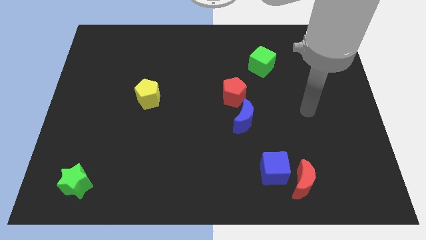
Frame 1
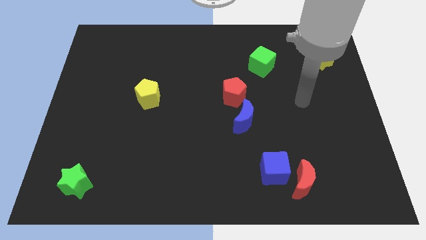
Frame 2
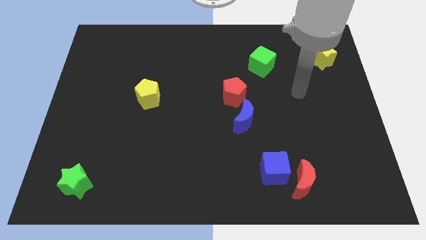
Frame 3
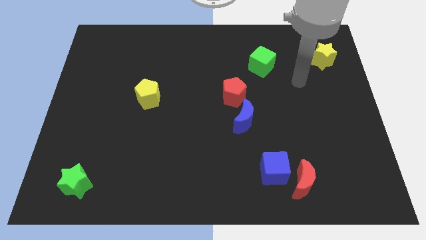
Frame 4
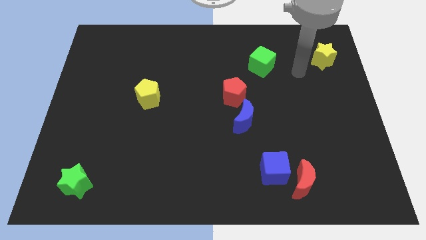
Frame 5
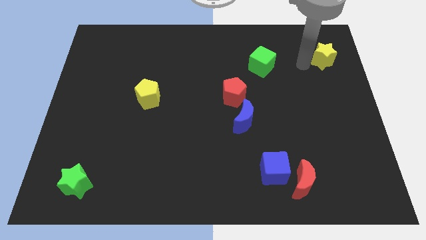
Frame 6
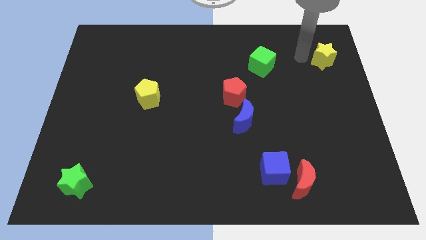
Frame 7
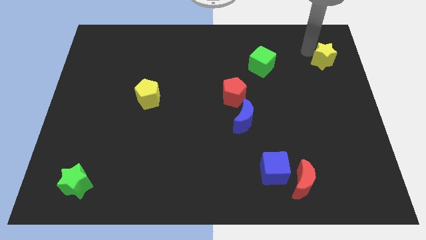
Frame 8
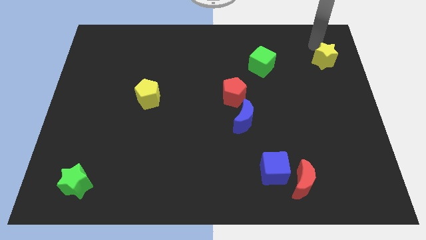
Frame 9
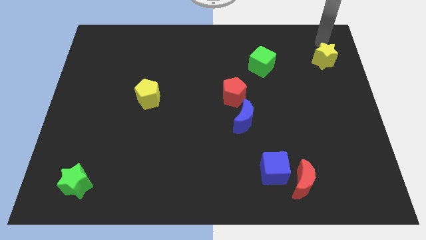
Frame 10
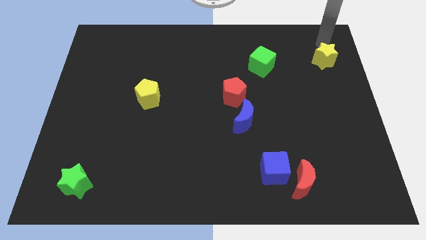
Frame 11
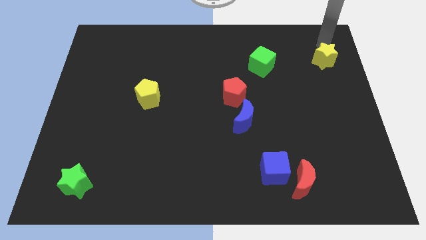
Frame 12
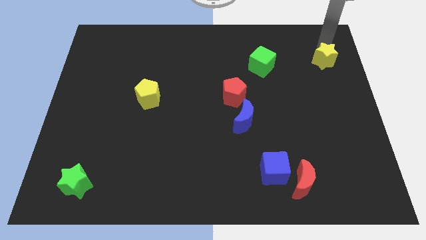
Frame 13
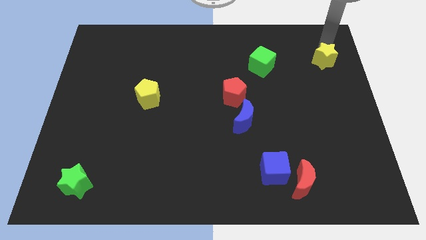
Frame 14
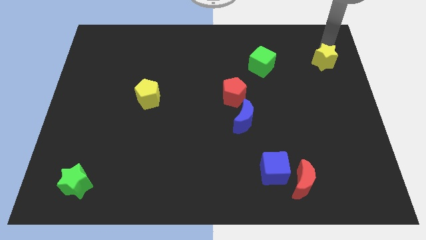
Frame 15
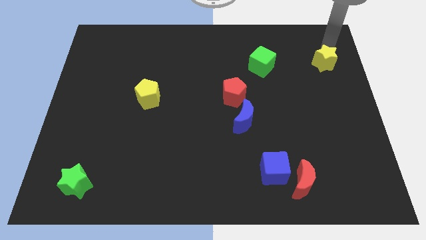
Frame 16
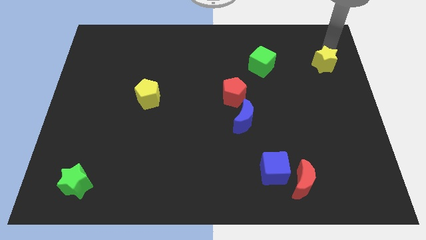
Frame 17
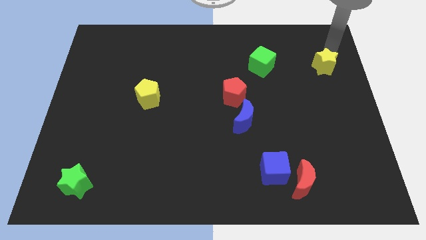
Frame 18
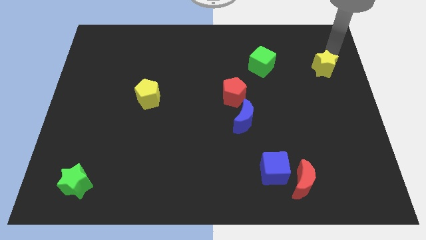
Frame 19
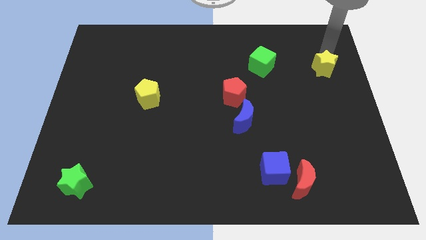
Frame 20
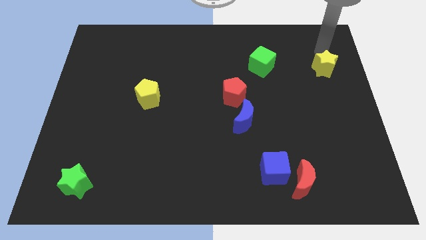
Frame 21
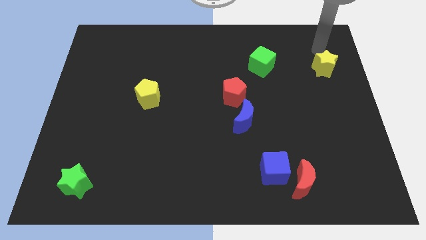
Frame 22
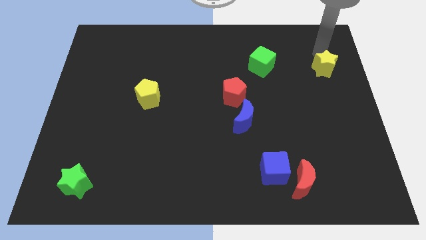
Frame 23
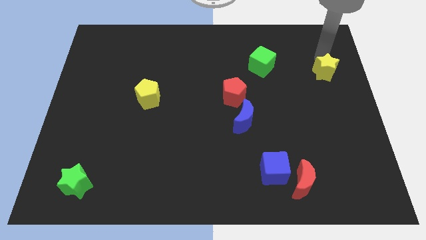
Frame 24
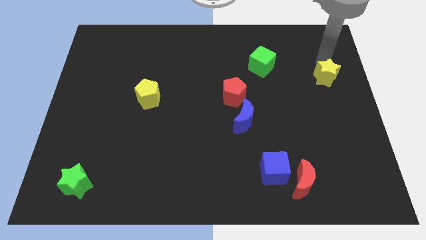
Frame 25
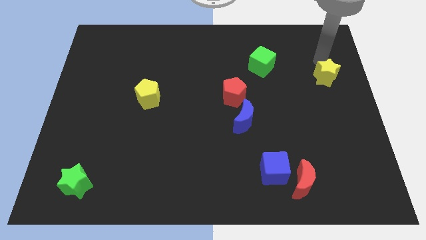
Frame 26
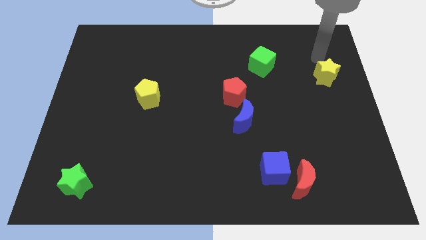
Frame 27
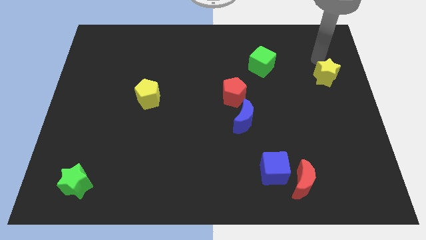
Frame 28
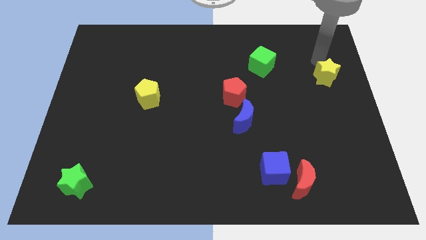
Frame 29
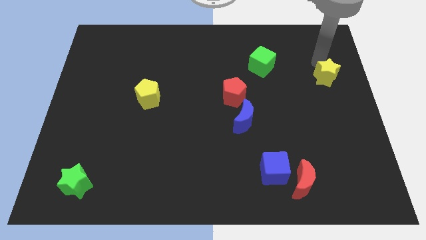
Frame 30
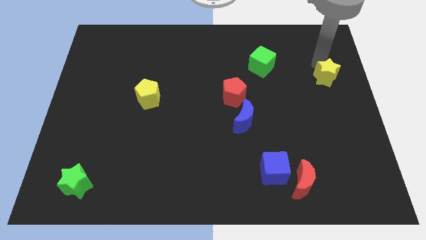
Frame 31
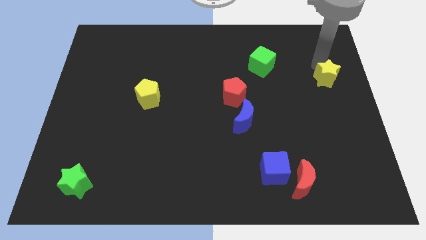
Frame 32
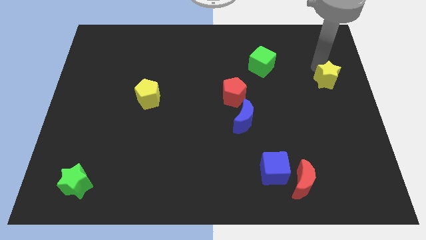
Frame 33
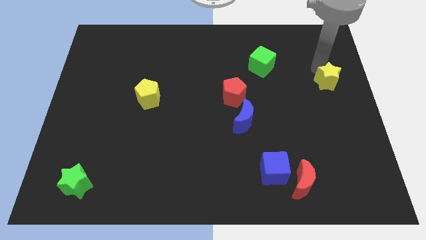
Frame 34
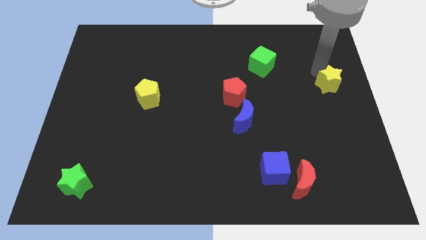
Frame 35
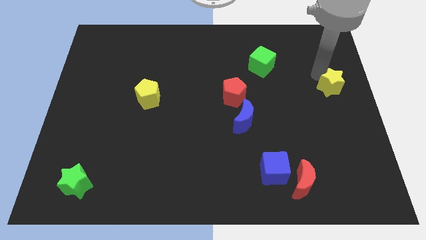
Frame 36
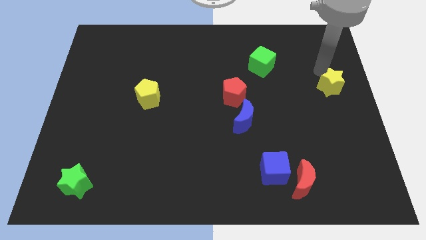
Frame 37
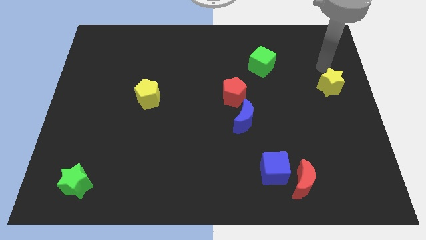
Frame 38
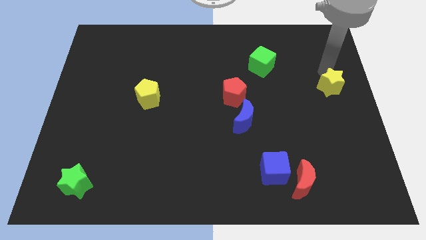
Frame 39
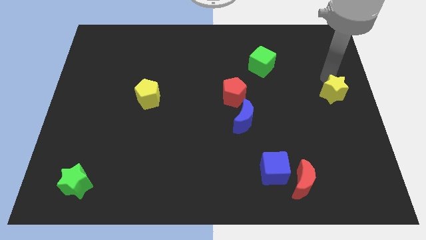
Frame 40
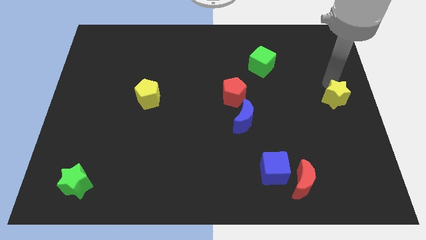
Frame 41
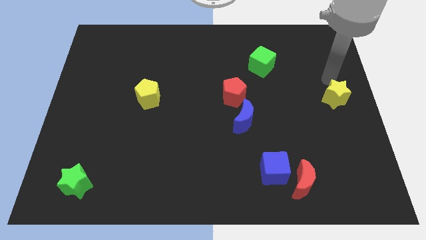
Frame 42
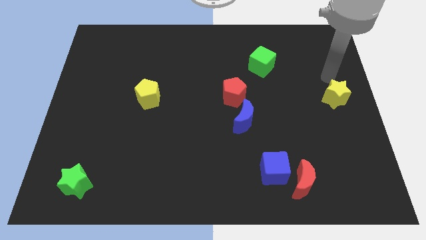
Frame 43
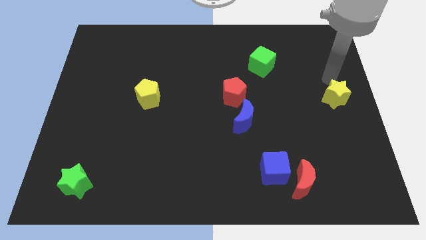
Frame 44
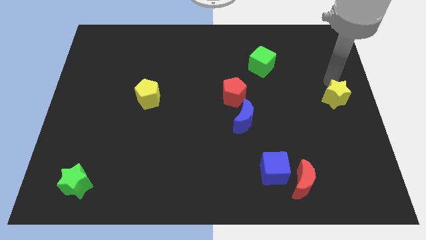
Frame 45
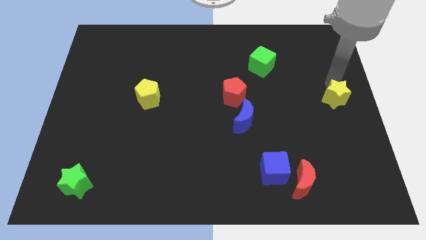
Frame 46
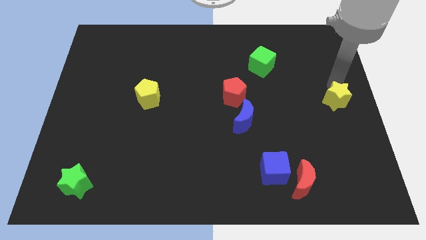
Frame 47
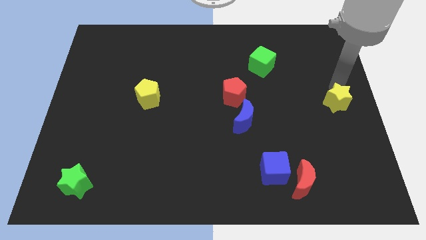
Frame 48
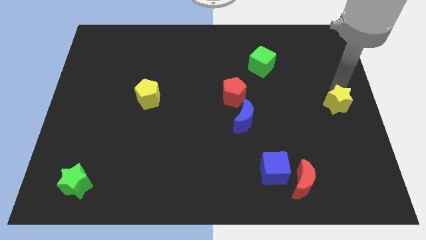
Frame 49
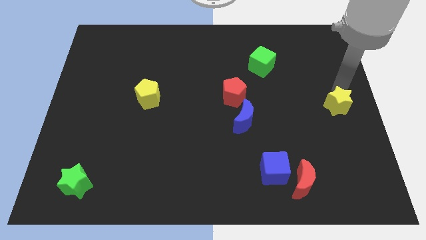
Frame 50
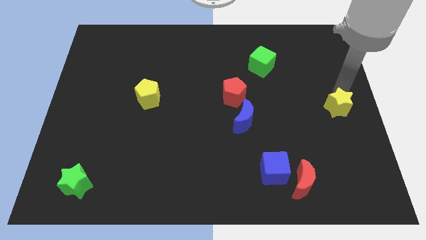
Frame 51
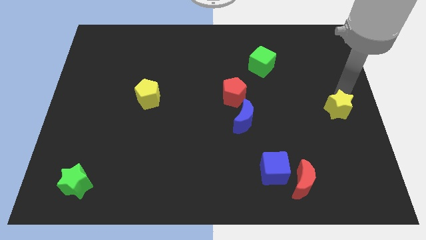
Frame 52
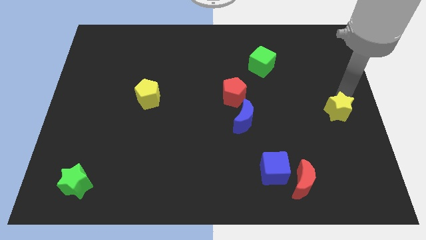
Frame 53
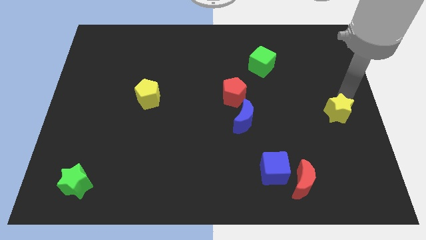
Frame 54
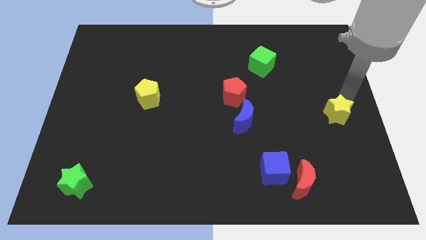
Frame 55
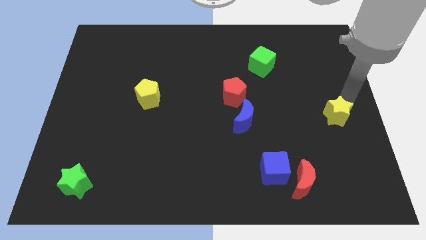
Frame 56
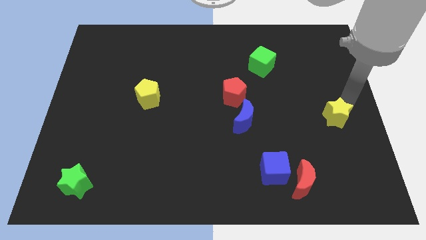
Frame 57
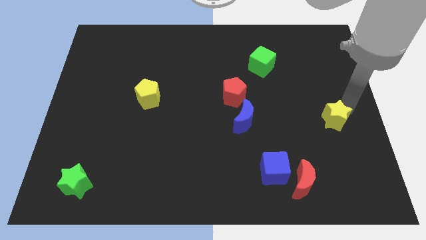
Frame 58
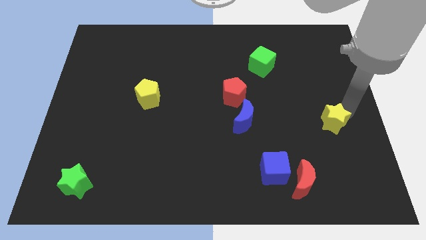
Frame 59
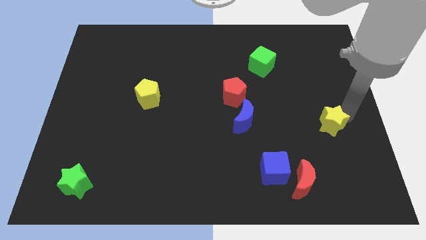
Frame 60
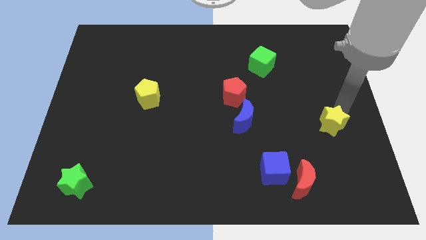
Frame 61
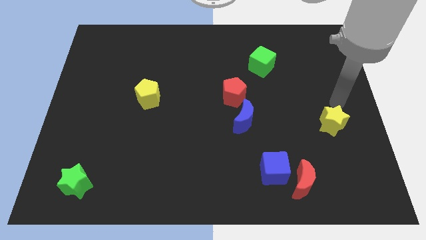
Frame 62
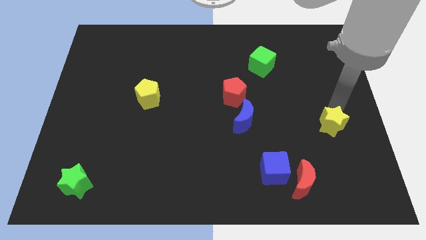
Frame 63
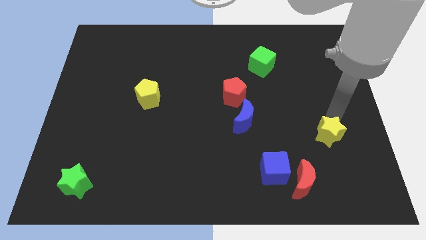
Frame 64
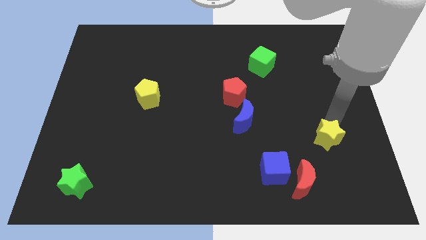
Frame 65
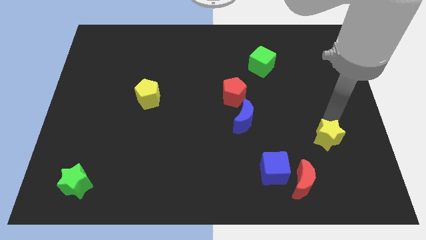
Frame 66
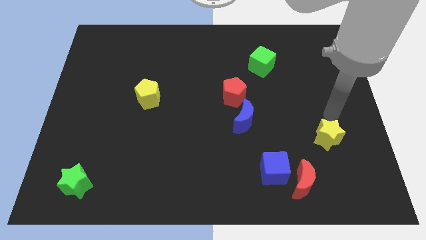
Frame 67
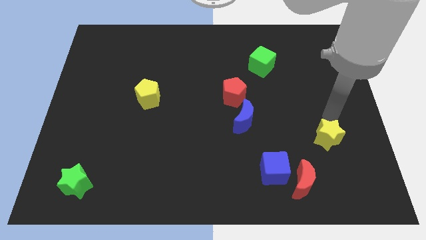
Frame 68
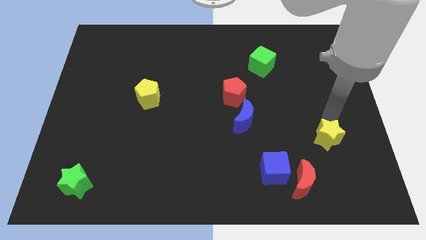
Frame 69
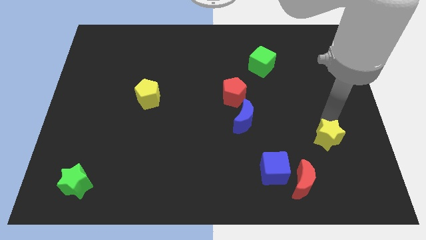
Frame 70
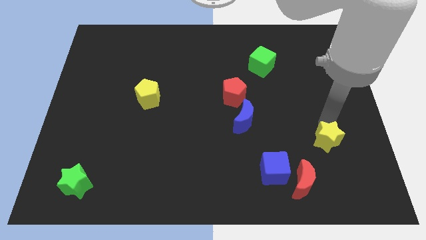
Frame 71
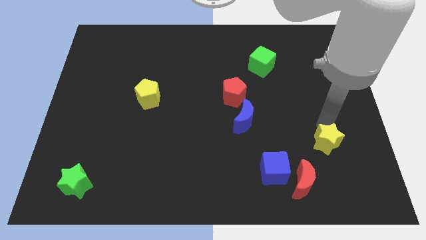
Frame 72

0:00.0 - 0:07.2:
slide the yellow star to the top right of the red moon
